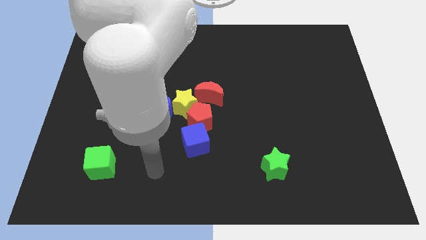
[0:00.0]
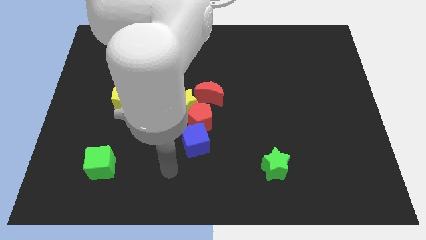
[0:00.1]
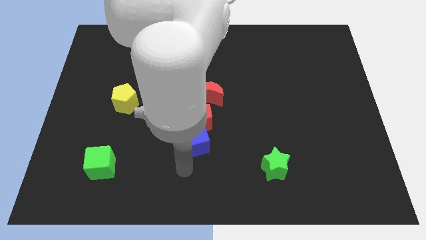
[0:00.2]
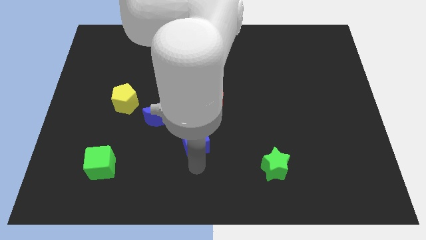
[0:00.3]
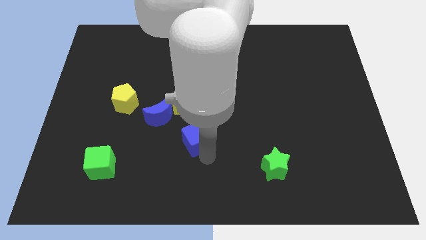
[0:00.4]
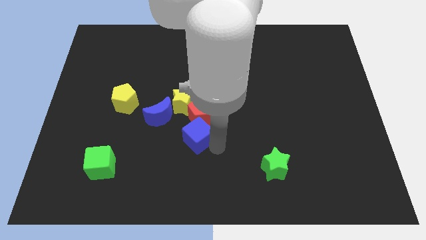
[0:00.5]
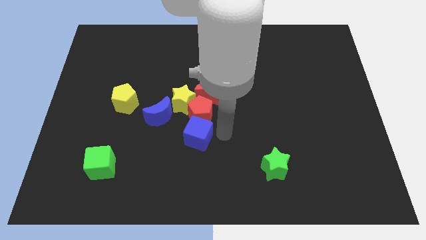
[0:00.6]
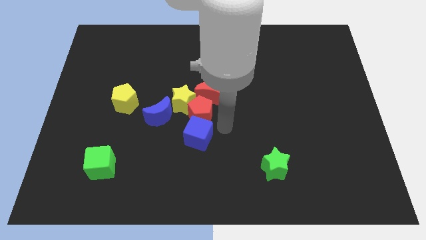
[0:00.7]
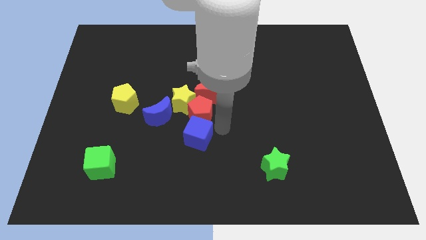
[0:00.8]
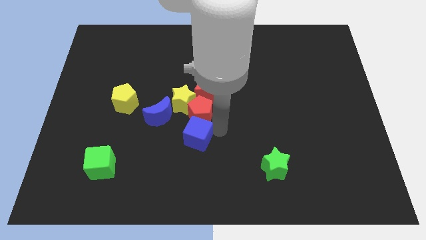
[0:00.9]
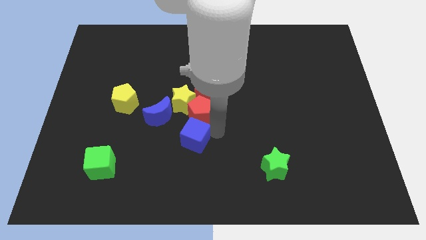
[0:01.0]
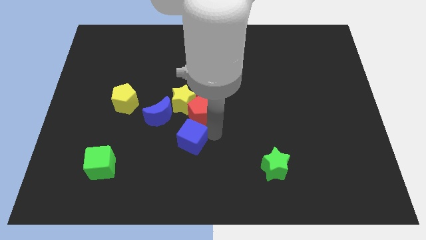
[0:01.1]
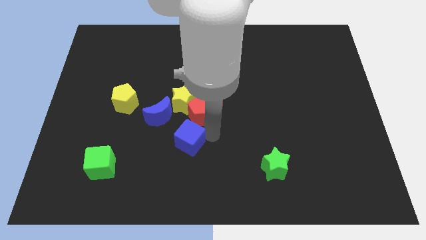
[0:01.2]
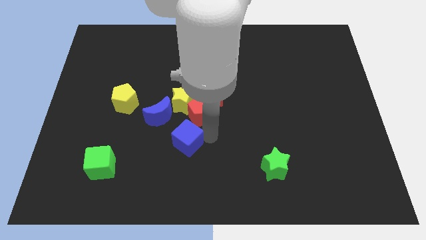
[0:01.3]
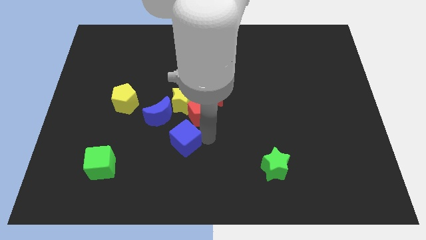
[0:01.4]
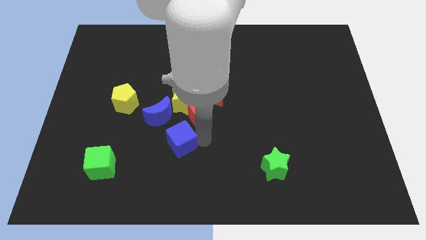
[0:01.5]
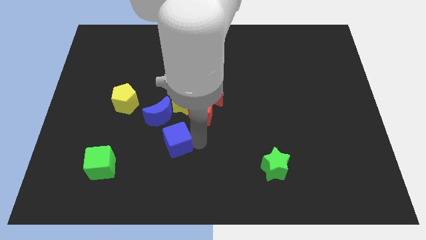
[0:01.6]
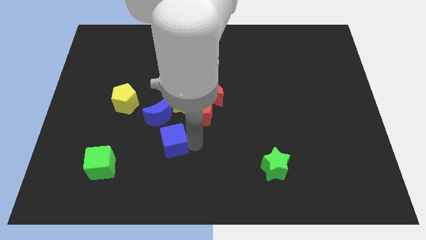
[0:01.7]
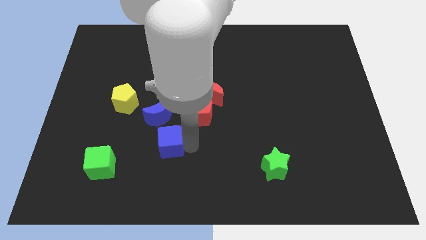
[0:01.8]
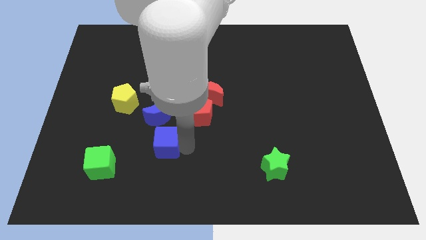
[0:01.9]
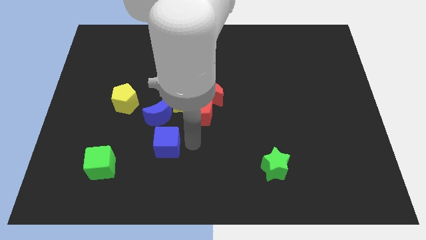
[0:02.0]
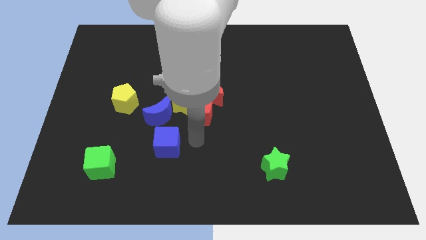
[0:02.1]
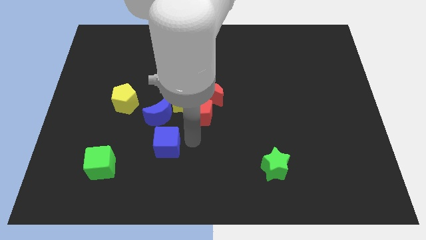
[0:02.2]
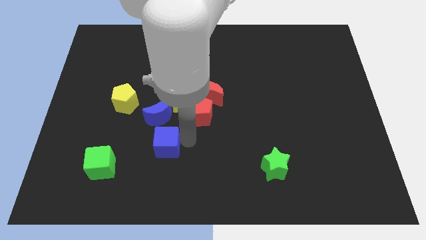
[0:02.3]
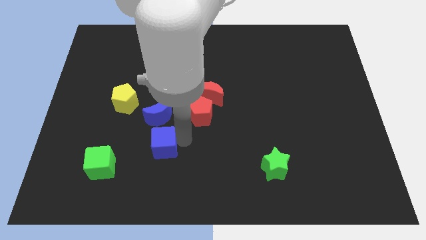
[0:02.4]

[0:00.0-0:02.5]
move the blue cube slightly to the left

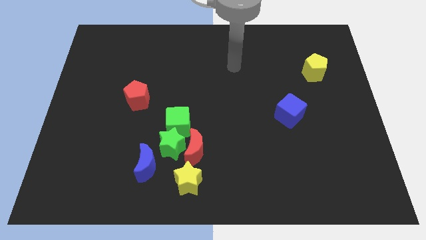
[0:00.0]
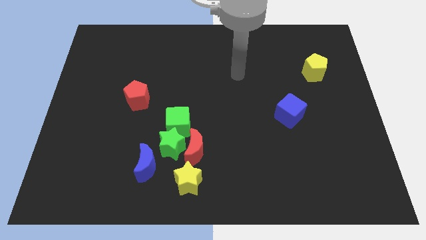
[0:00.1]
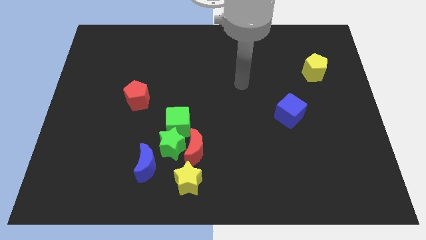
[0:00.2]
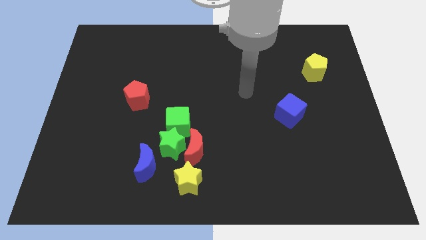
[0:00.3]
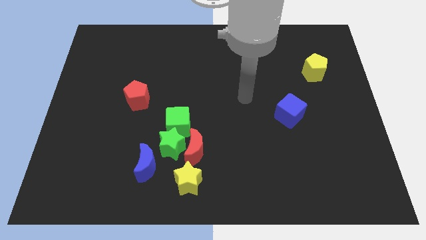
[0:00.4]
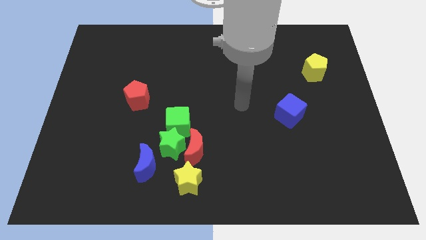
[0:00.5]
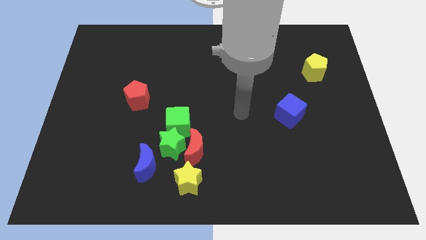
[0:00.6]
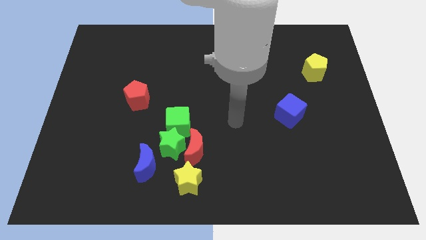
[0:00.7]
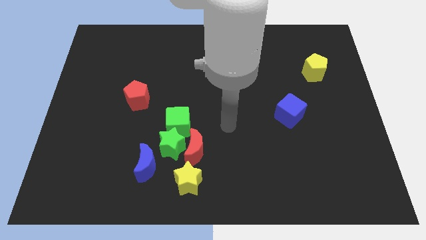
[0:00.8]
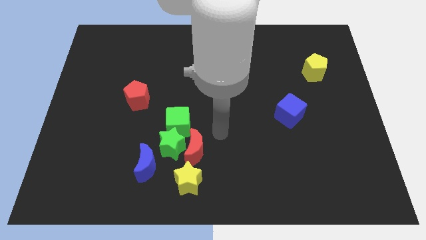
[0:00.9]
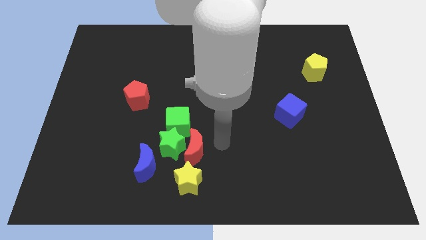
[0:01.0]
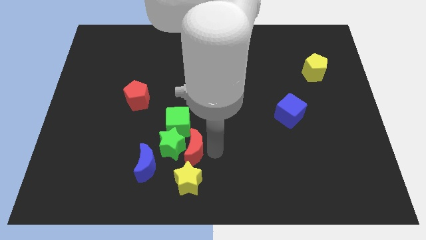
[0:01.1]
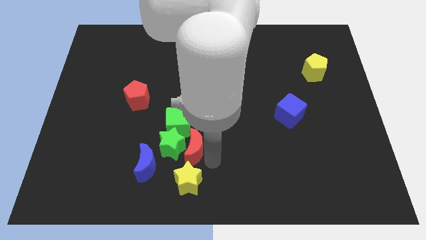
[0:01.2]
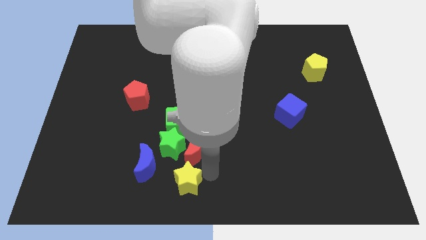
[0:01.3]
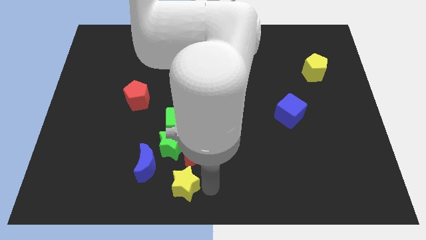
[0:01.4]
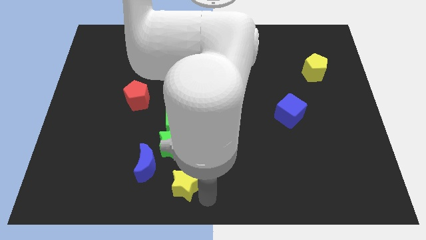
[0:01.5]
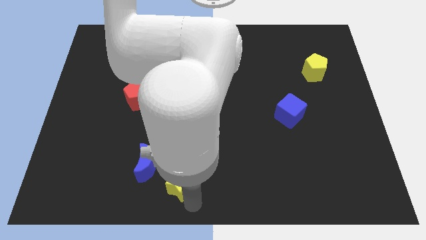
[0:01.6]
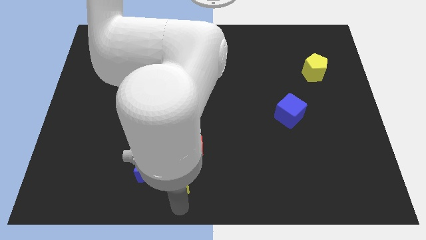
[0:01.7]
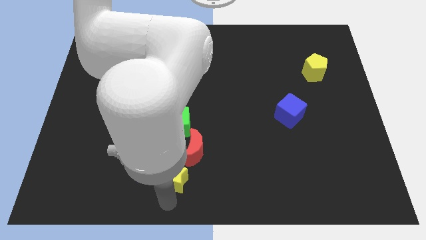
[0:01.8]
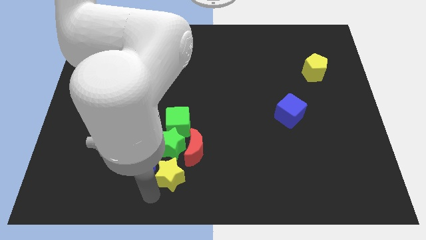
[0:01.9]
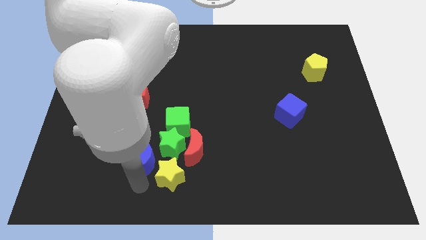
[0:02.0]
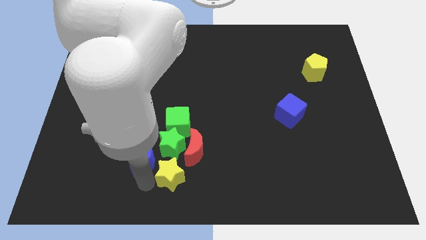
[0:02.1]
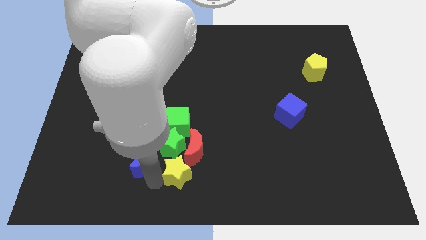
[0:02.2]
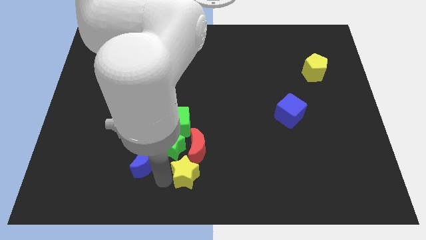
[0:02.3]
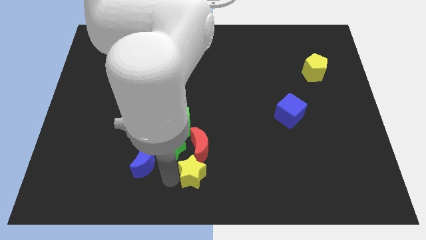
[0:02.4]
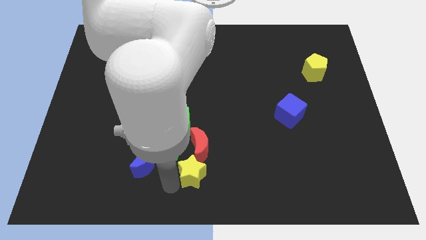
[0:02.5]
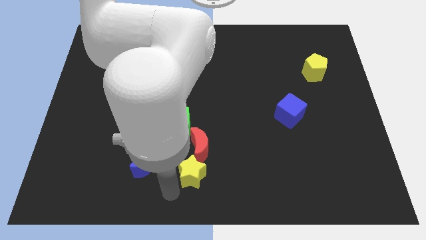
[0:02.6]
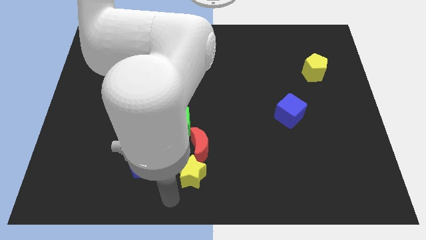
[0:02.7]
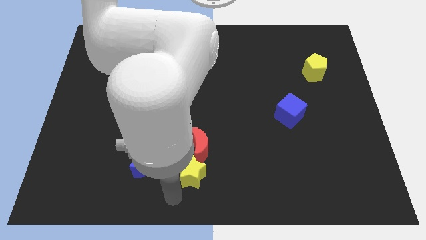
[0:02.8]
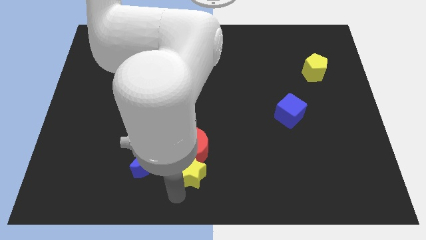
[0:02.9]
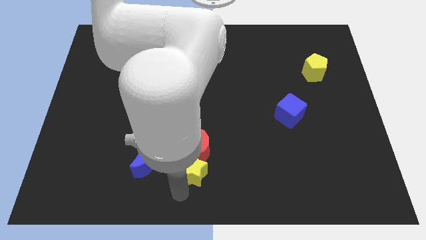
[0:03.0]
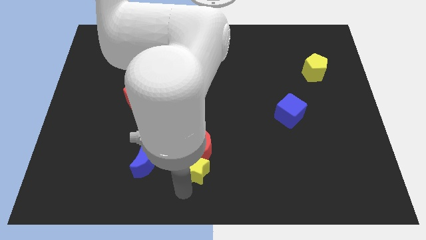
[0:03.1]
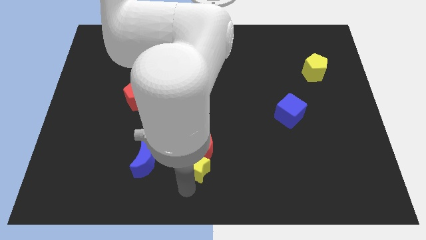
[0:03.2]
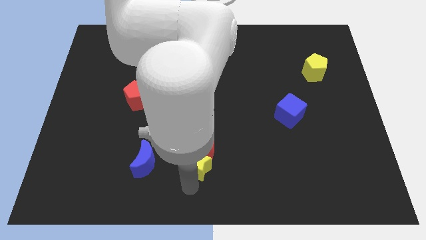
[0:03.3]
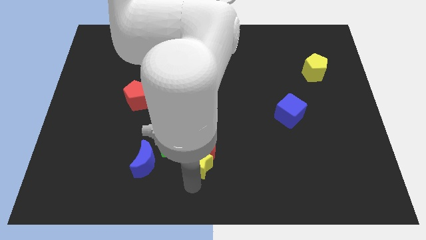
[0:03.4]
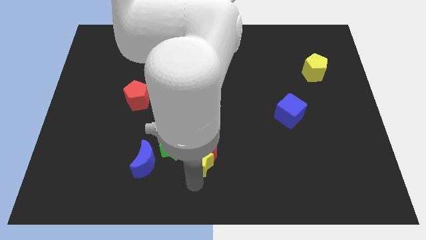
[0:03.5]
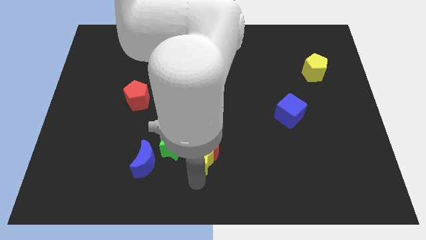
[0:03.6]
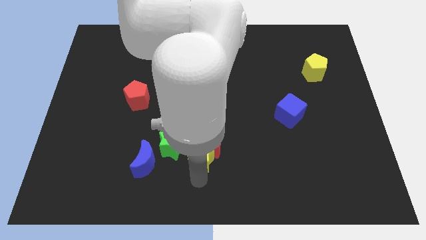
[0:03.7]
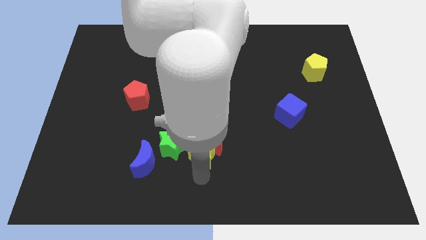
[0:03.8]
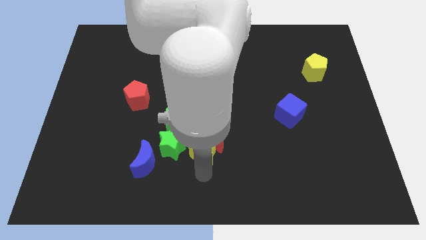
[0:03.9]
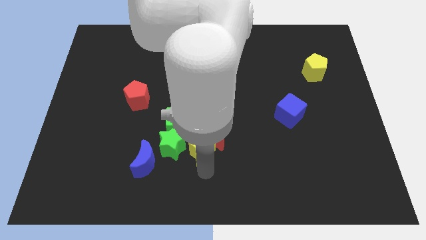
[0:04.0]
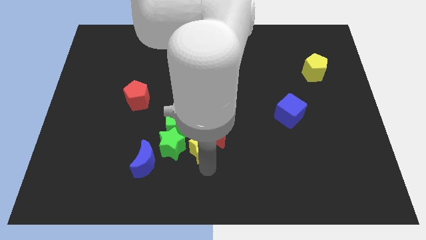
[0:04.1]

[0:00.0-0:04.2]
slightly push the yellow star up

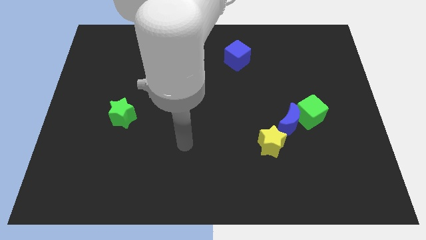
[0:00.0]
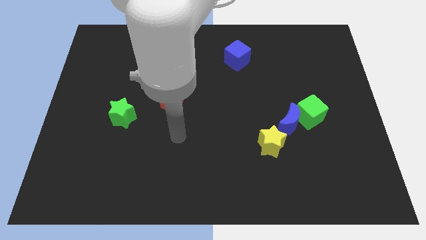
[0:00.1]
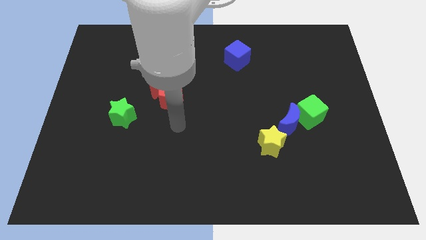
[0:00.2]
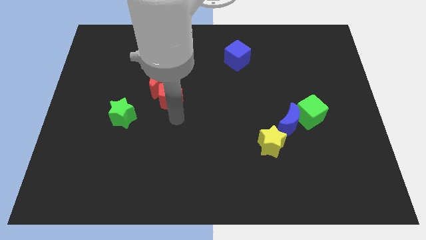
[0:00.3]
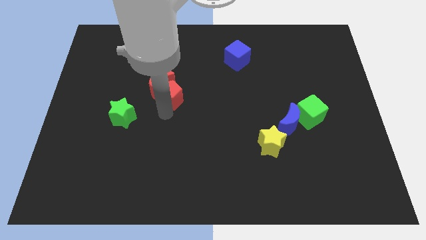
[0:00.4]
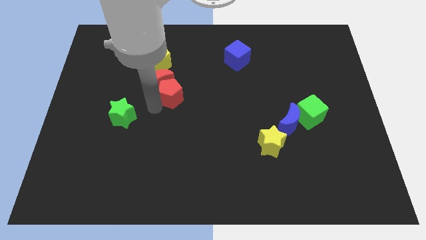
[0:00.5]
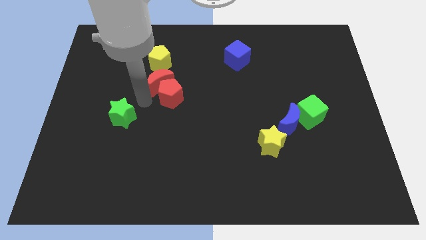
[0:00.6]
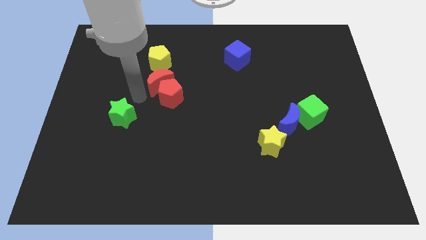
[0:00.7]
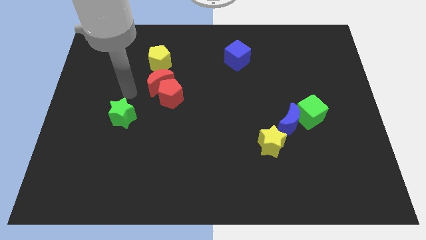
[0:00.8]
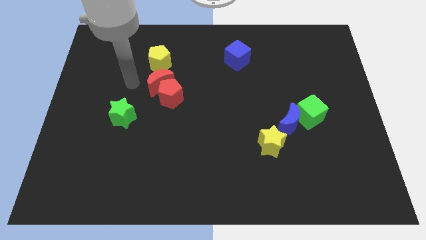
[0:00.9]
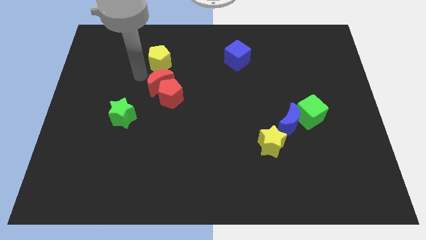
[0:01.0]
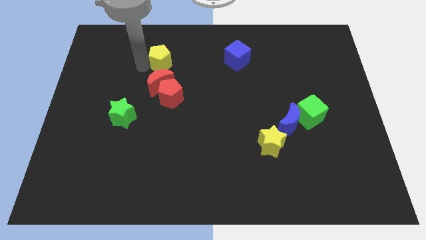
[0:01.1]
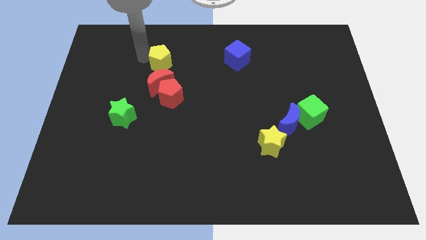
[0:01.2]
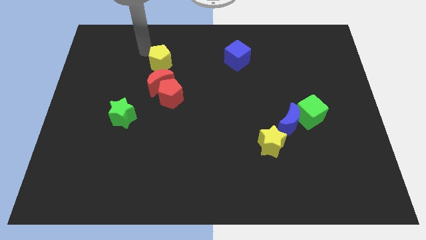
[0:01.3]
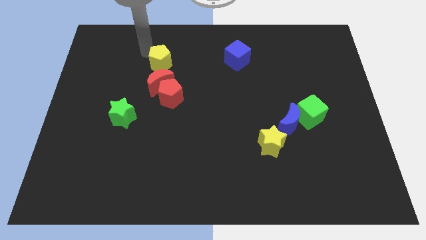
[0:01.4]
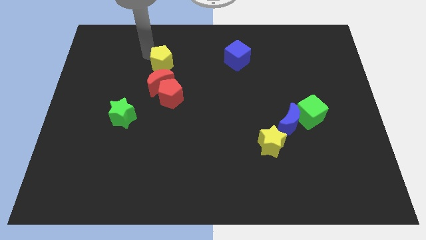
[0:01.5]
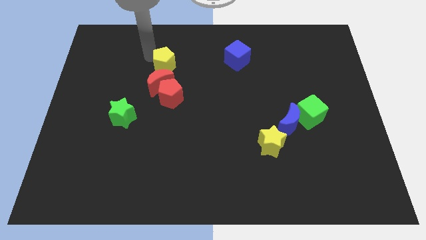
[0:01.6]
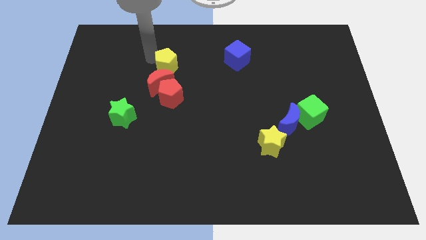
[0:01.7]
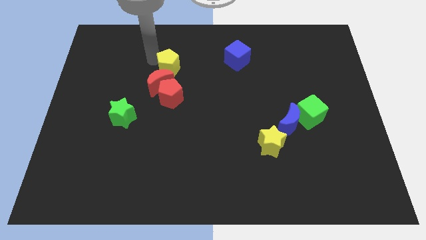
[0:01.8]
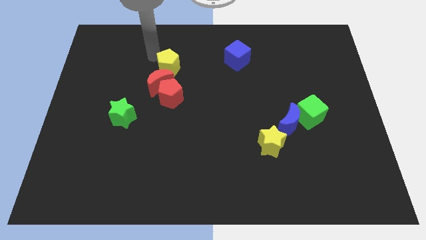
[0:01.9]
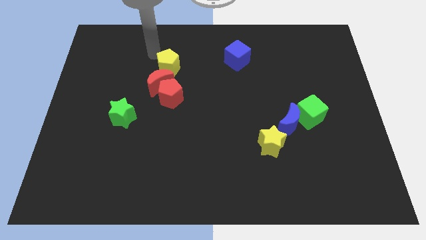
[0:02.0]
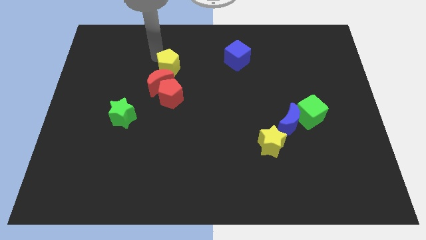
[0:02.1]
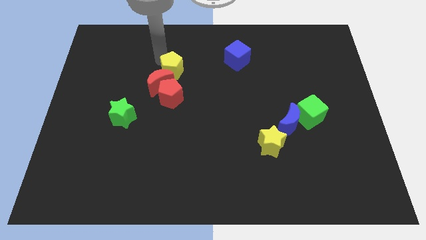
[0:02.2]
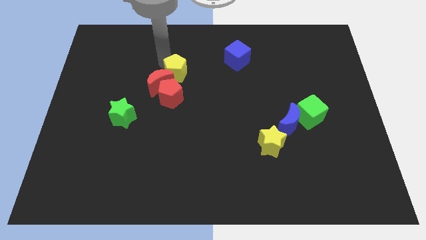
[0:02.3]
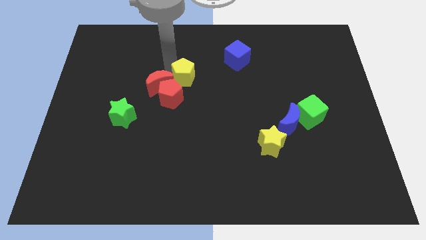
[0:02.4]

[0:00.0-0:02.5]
slide the yellow pentagon a bit down and to the right diagonally
